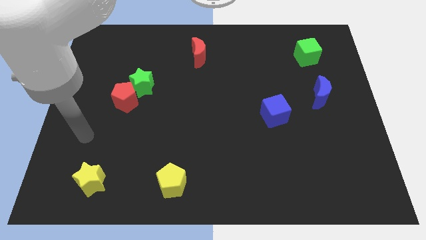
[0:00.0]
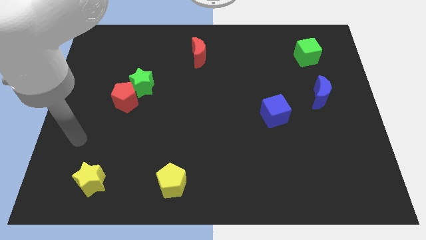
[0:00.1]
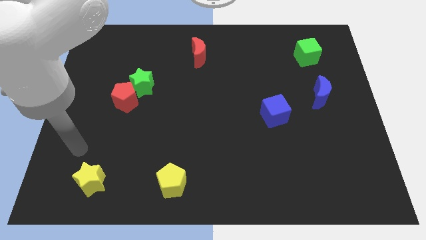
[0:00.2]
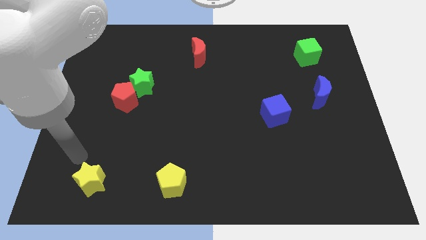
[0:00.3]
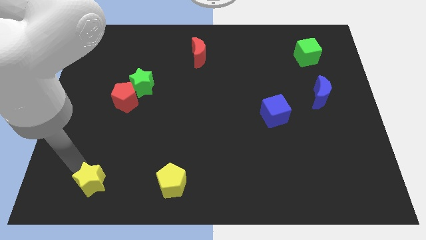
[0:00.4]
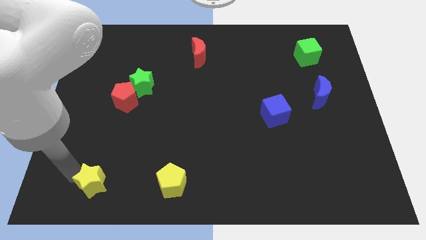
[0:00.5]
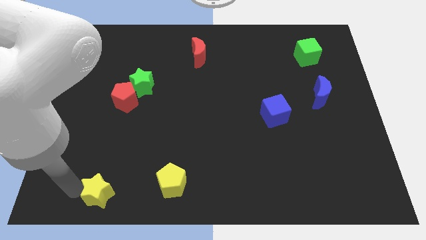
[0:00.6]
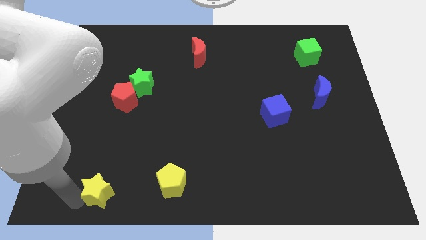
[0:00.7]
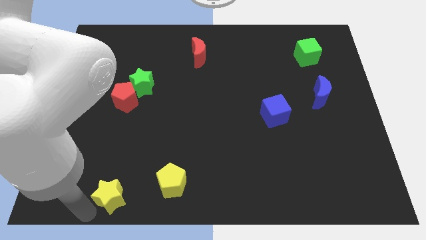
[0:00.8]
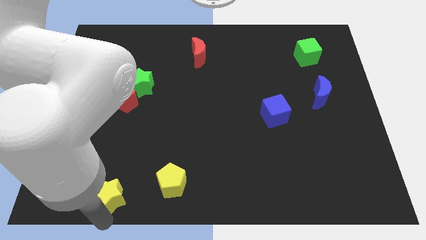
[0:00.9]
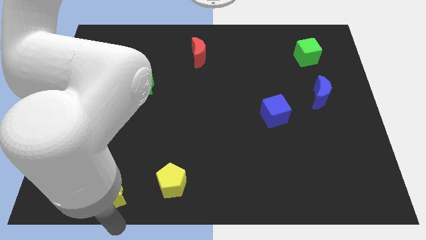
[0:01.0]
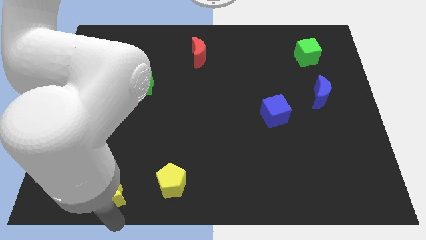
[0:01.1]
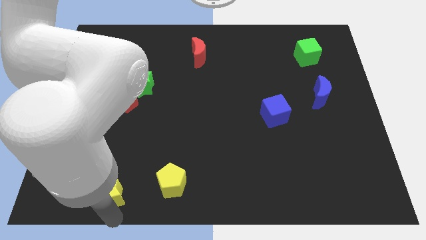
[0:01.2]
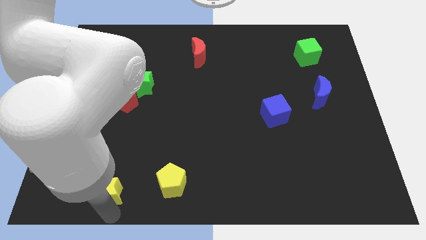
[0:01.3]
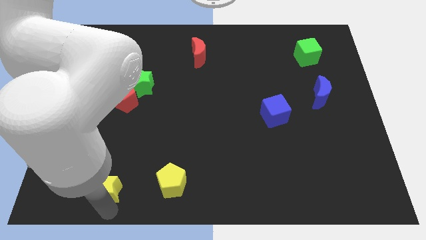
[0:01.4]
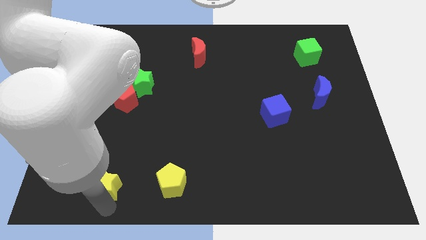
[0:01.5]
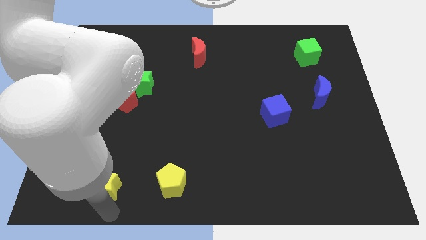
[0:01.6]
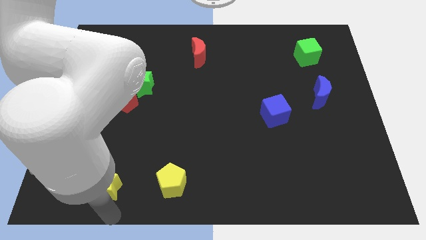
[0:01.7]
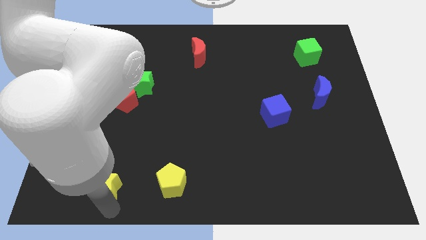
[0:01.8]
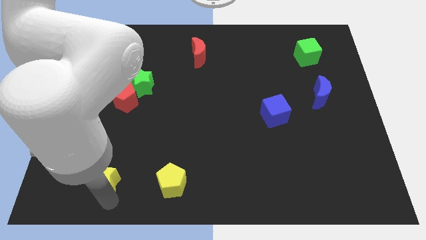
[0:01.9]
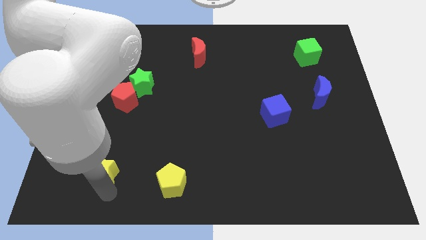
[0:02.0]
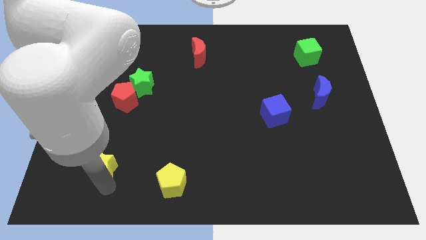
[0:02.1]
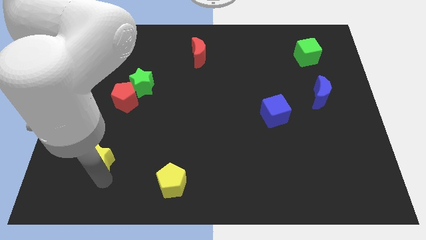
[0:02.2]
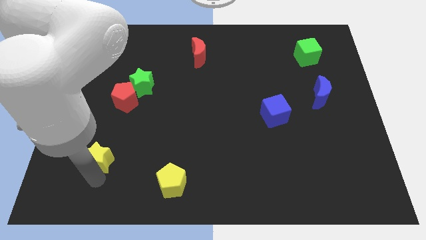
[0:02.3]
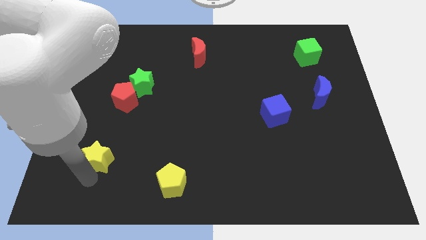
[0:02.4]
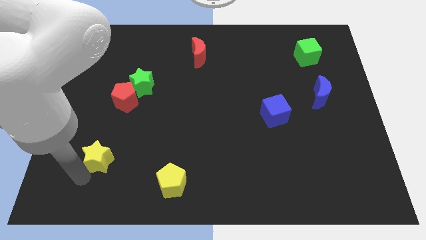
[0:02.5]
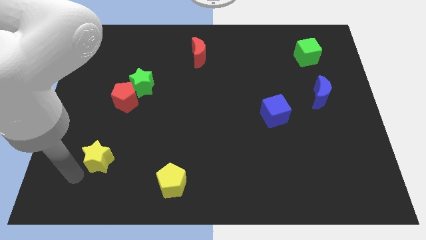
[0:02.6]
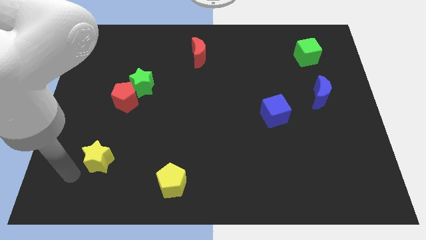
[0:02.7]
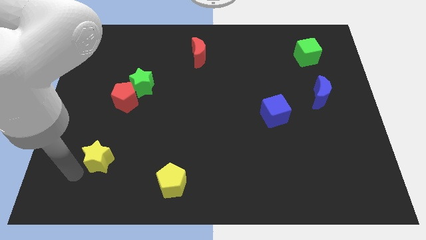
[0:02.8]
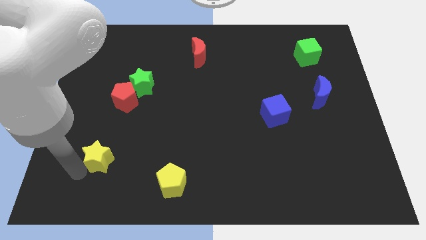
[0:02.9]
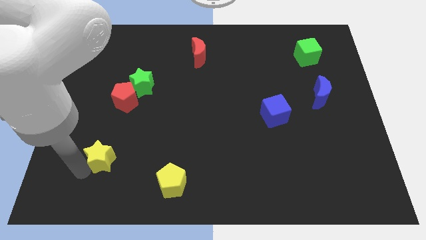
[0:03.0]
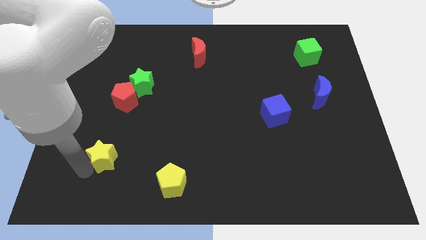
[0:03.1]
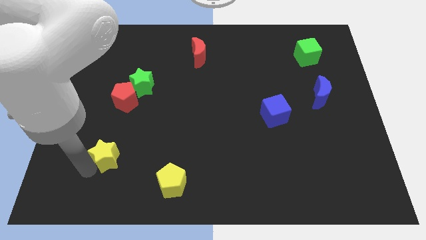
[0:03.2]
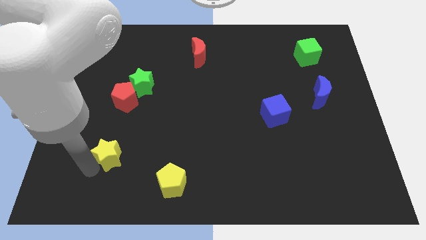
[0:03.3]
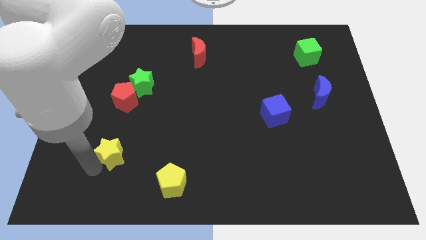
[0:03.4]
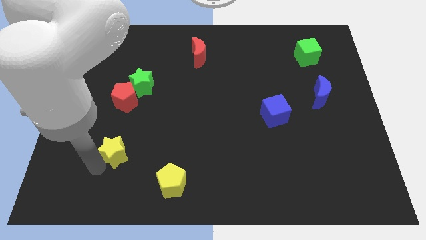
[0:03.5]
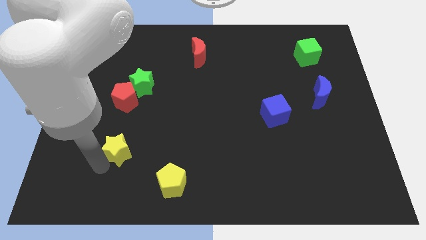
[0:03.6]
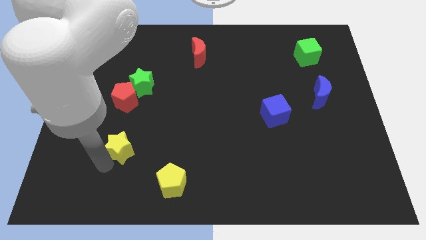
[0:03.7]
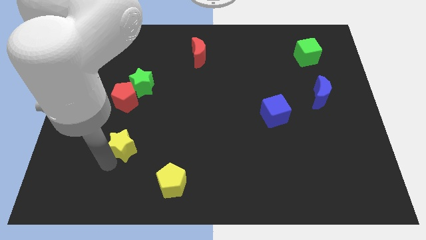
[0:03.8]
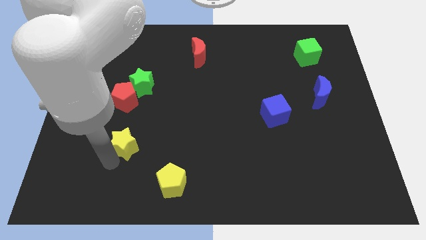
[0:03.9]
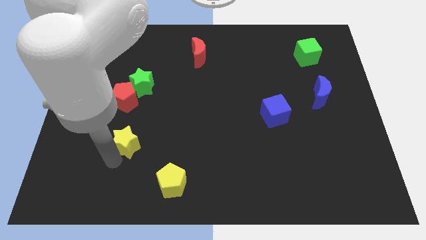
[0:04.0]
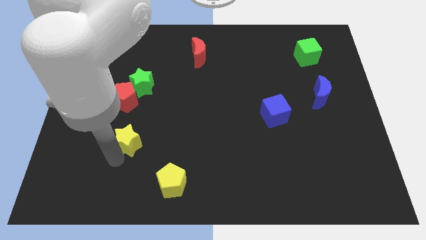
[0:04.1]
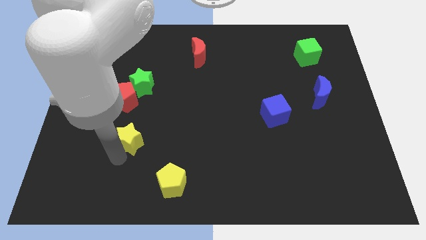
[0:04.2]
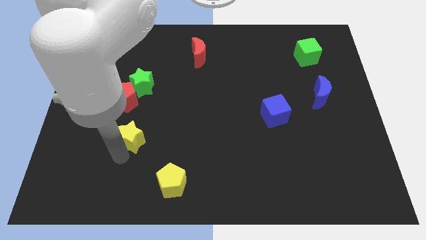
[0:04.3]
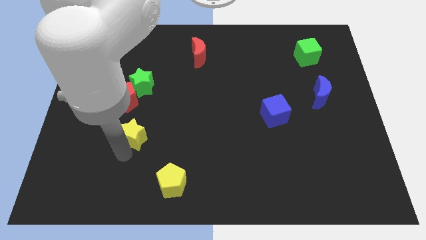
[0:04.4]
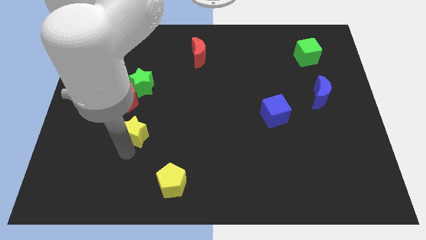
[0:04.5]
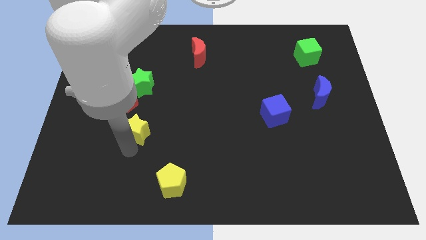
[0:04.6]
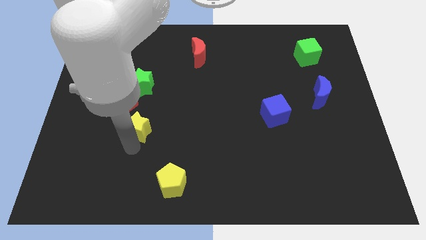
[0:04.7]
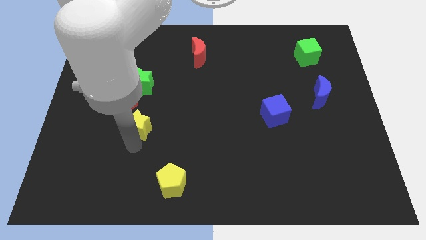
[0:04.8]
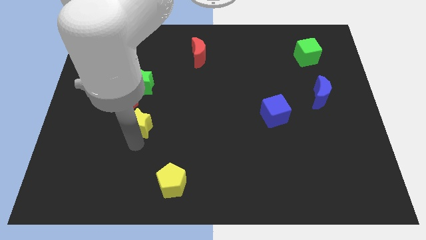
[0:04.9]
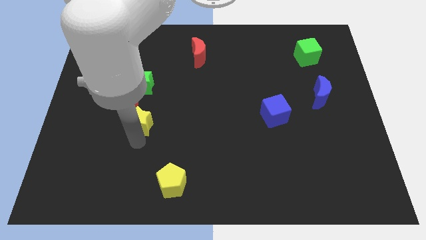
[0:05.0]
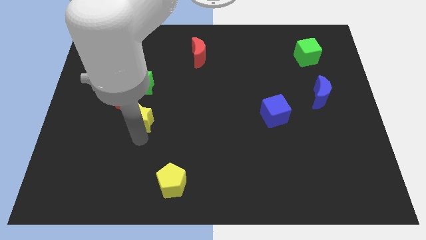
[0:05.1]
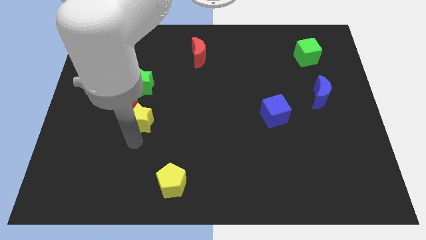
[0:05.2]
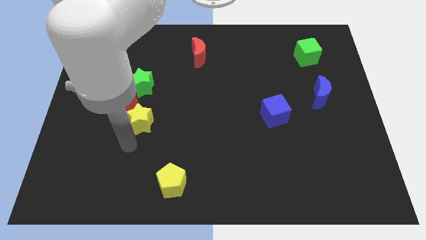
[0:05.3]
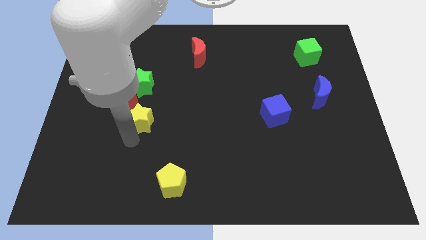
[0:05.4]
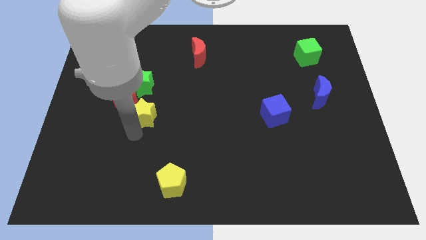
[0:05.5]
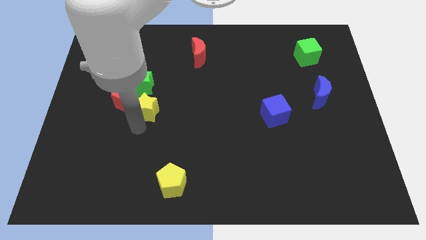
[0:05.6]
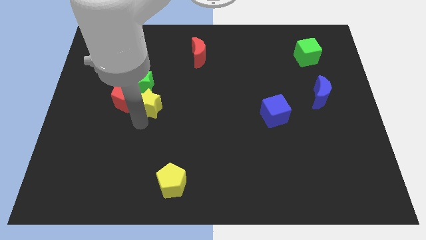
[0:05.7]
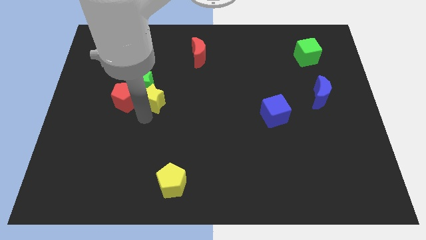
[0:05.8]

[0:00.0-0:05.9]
put the yellow star to the top right of the red pentagon
